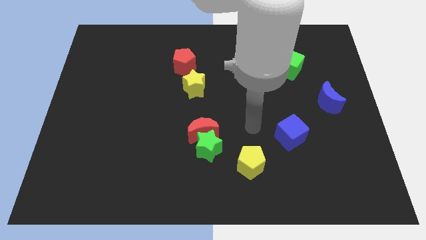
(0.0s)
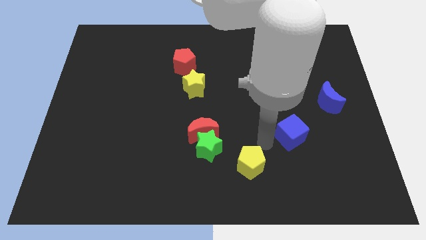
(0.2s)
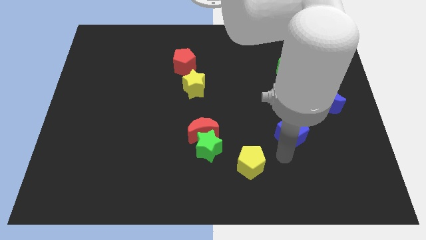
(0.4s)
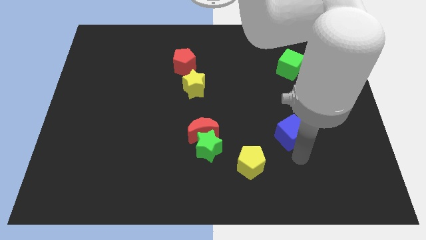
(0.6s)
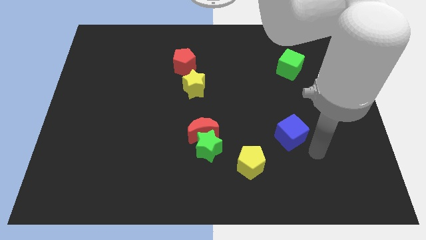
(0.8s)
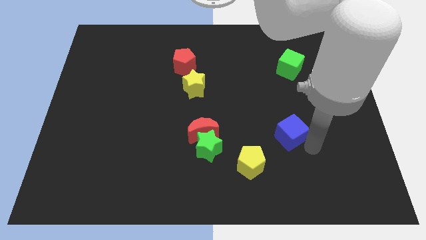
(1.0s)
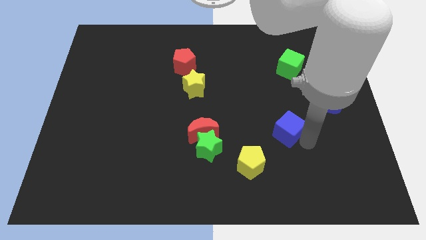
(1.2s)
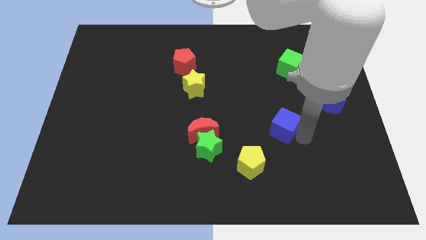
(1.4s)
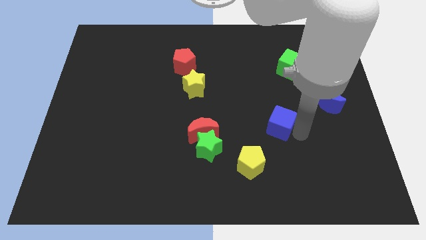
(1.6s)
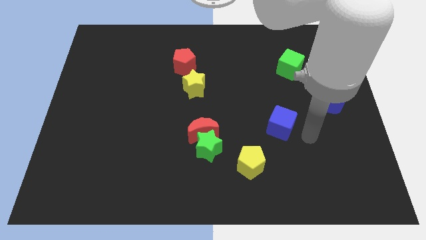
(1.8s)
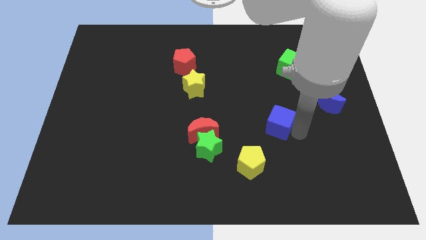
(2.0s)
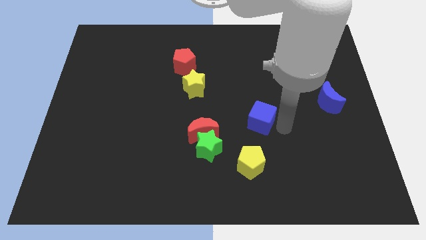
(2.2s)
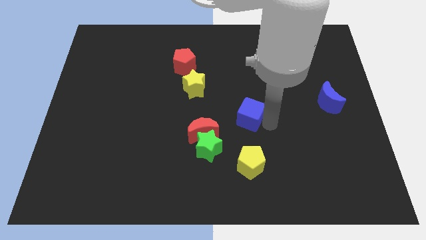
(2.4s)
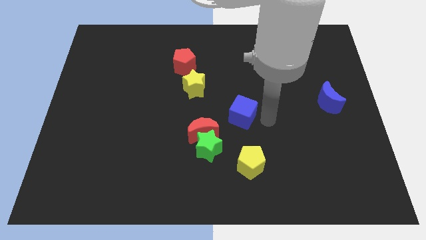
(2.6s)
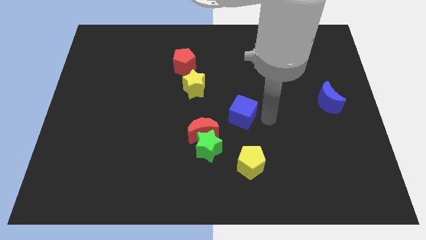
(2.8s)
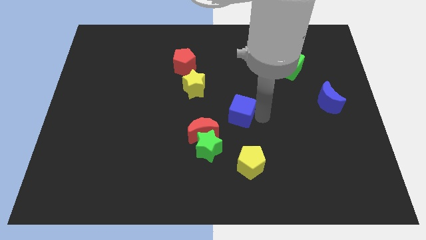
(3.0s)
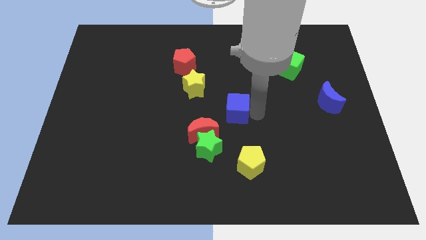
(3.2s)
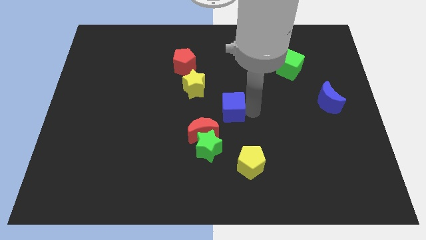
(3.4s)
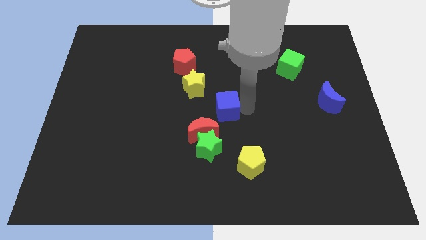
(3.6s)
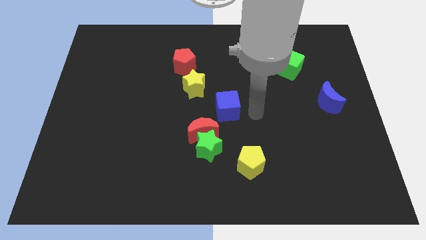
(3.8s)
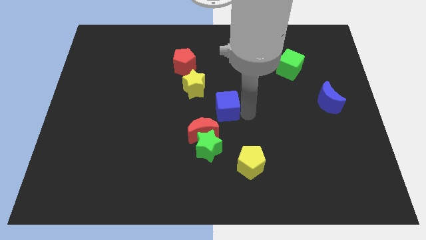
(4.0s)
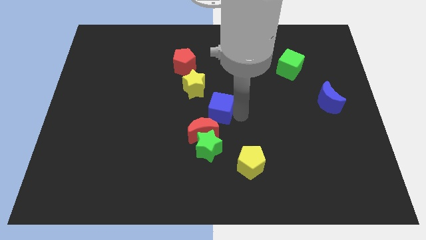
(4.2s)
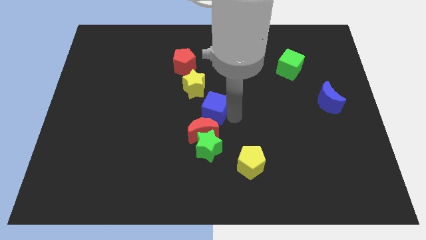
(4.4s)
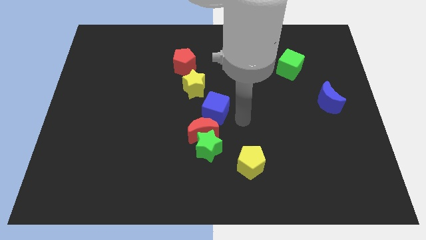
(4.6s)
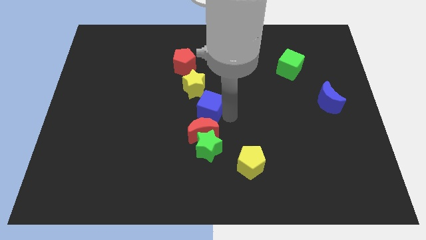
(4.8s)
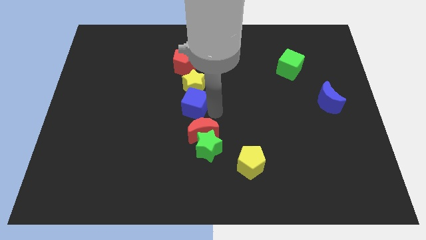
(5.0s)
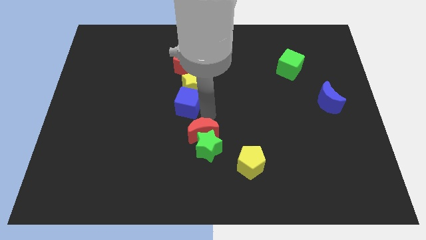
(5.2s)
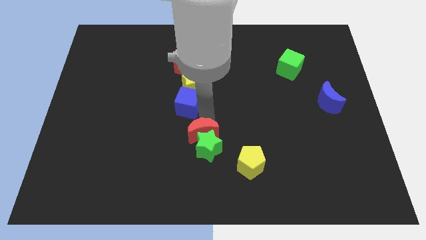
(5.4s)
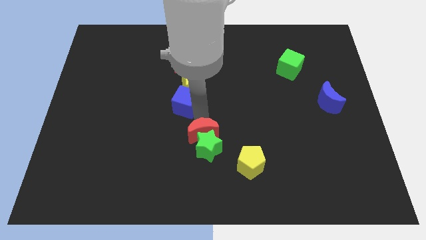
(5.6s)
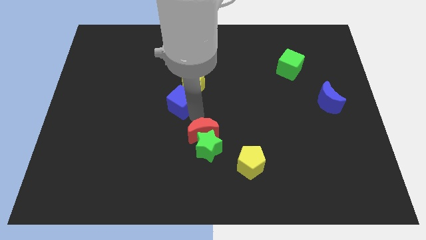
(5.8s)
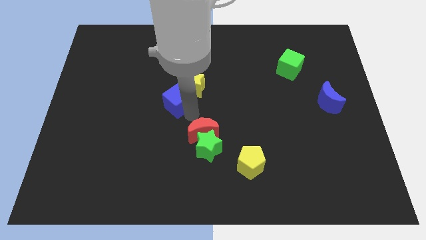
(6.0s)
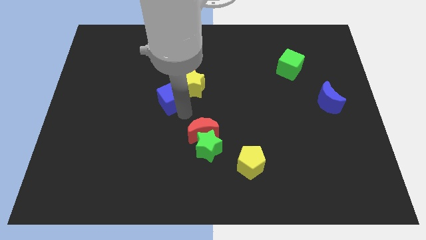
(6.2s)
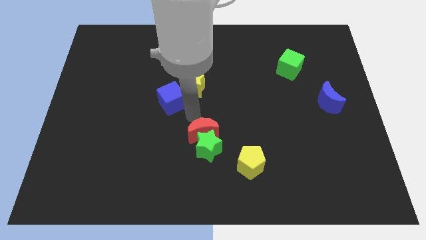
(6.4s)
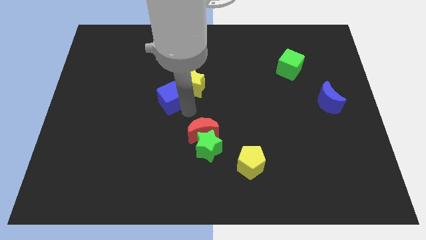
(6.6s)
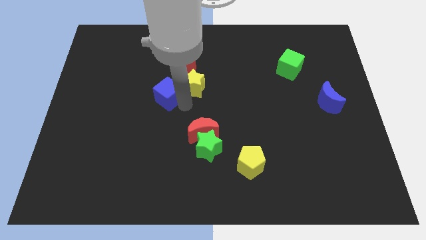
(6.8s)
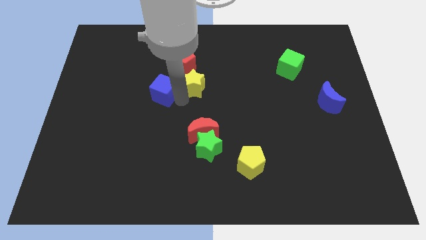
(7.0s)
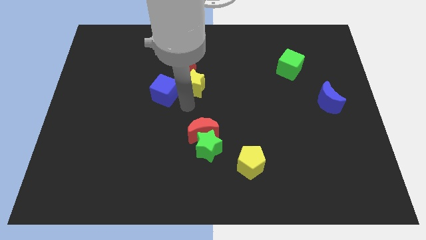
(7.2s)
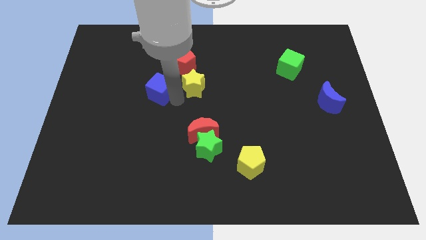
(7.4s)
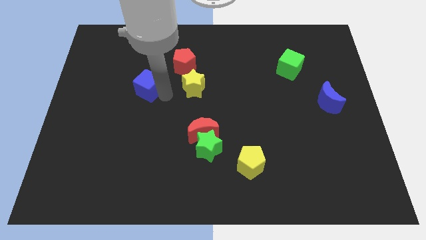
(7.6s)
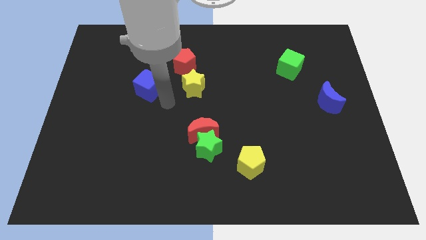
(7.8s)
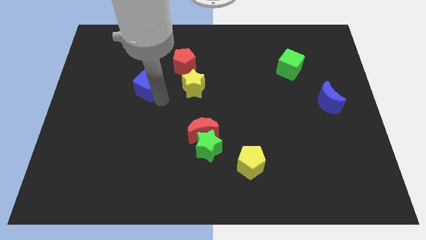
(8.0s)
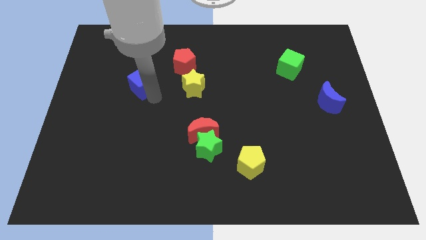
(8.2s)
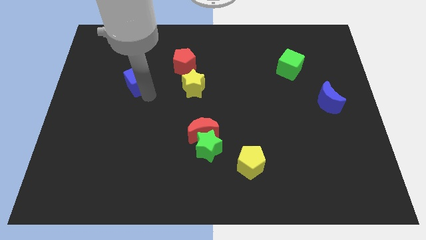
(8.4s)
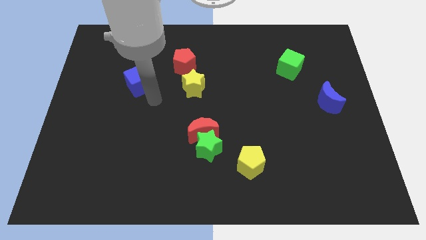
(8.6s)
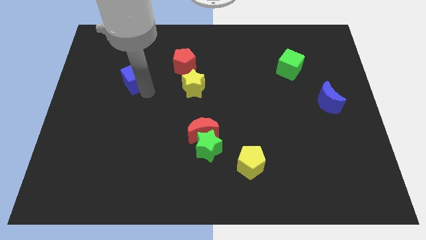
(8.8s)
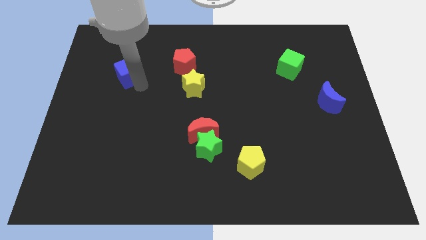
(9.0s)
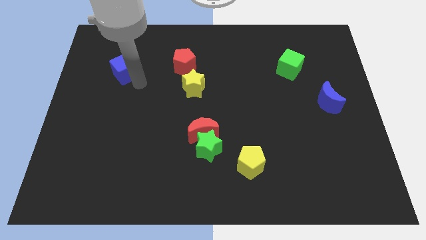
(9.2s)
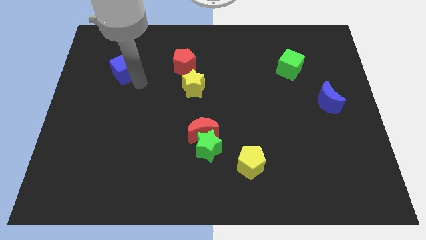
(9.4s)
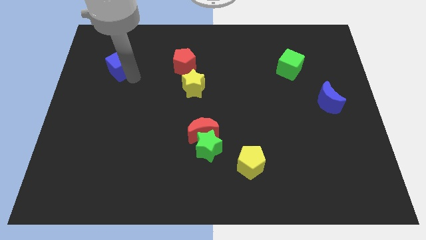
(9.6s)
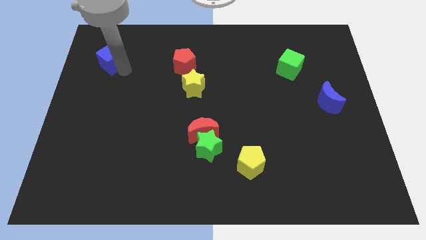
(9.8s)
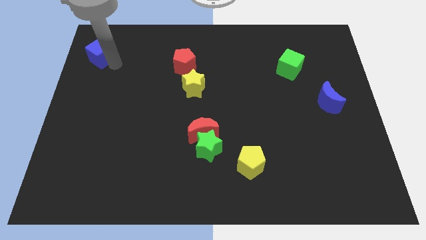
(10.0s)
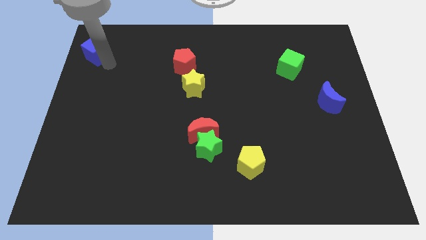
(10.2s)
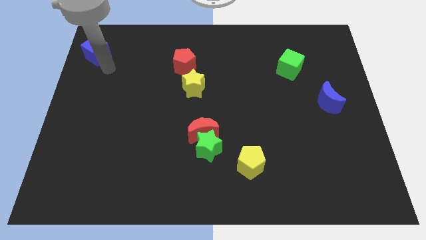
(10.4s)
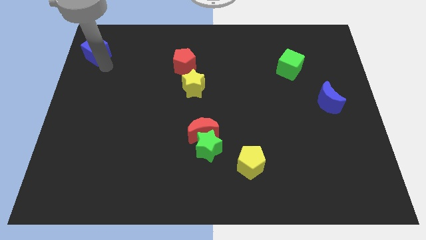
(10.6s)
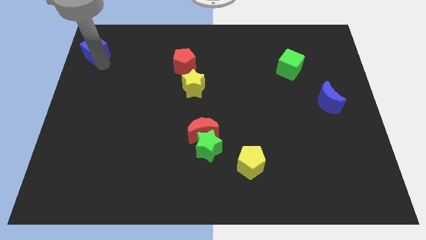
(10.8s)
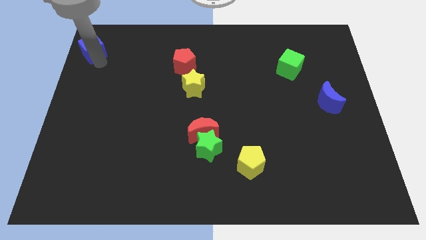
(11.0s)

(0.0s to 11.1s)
slide the blue cube to the upper left corner

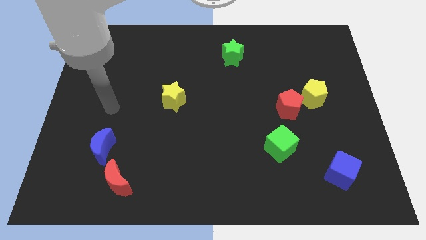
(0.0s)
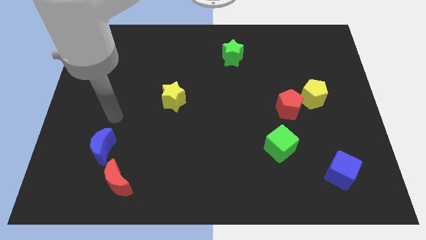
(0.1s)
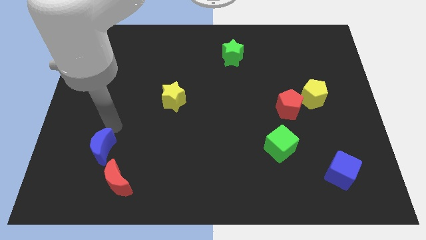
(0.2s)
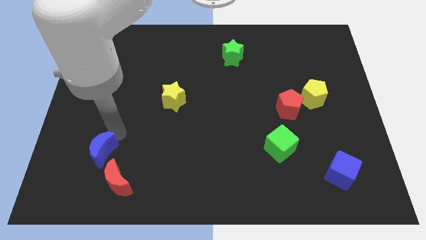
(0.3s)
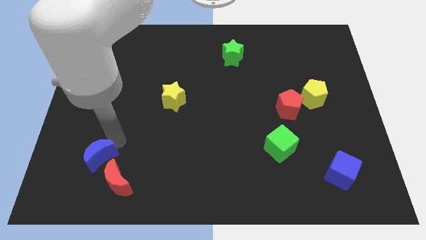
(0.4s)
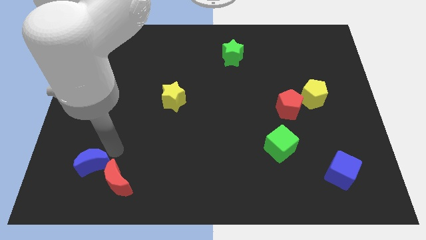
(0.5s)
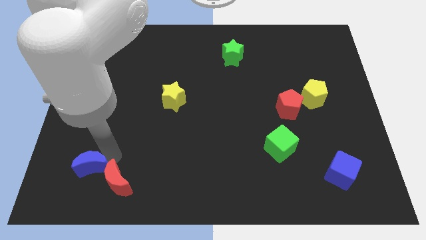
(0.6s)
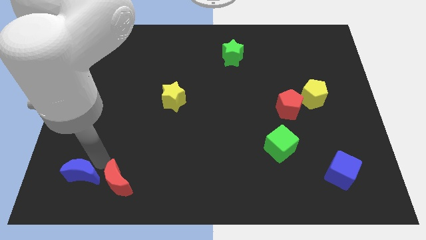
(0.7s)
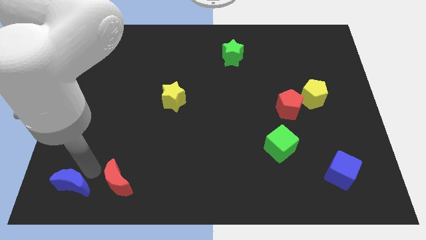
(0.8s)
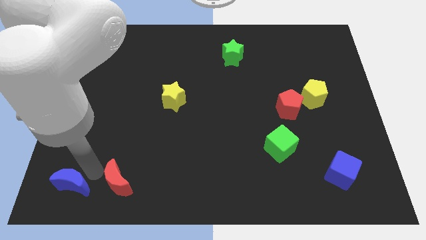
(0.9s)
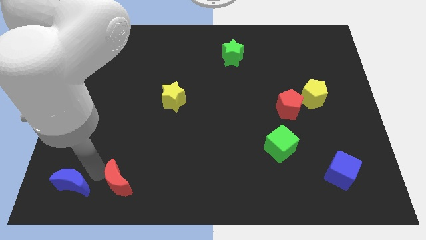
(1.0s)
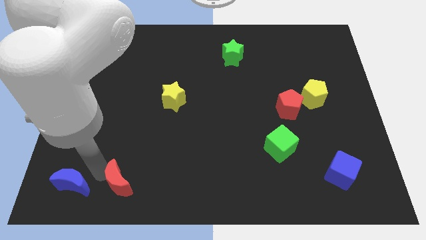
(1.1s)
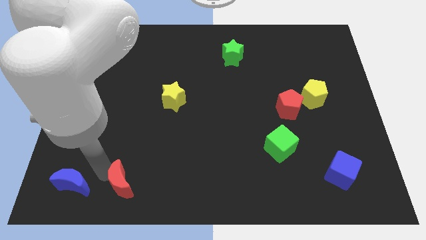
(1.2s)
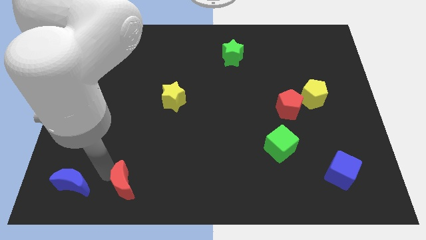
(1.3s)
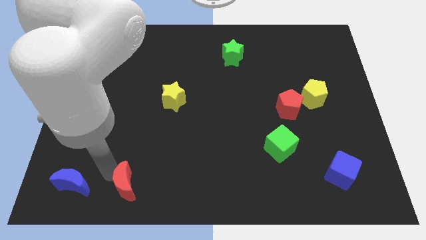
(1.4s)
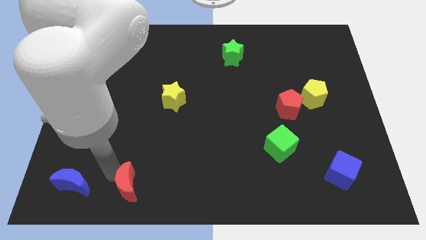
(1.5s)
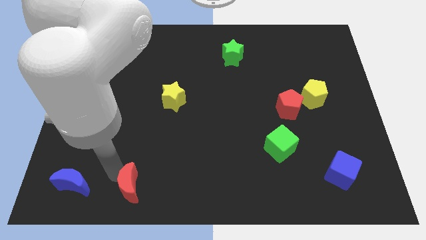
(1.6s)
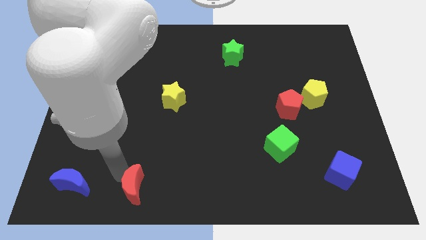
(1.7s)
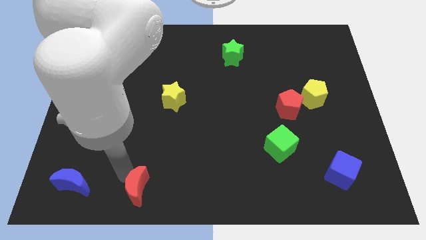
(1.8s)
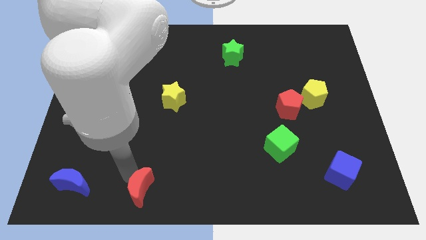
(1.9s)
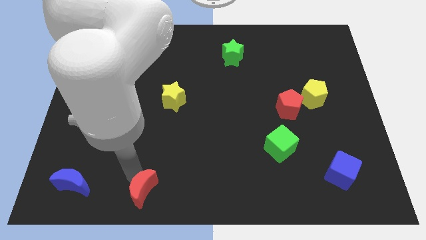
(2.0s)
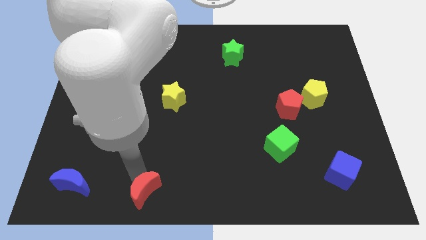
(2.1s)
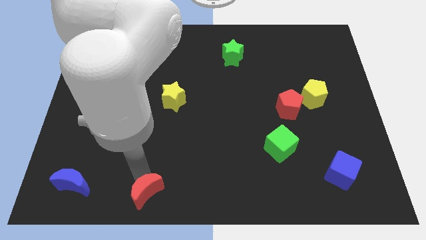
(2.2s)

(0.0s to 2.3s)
put the red moon to the bottom side

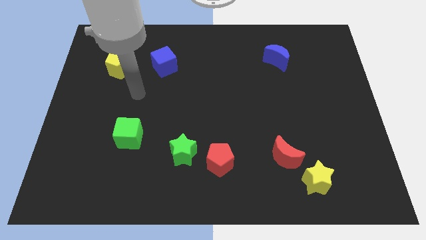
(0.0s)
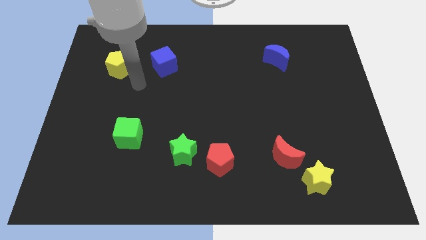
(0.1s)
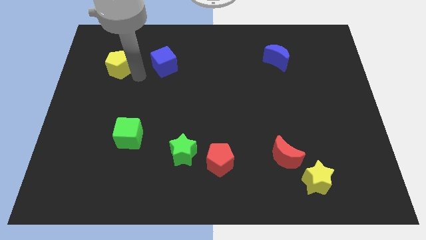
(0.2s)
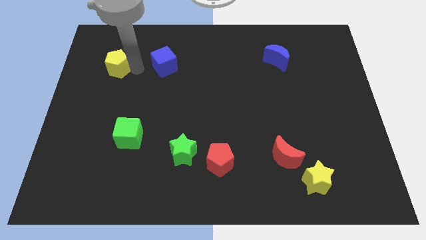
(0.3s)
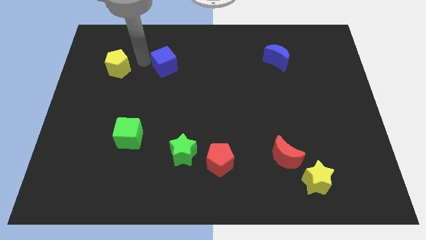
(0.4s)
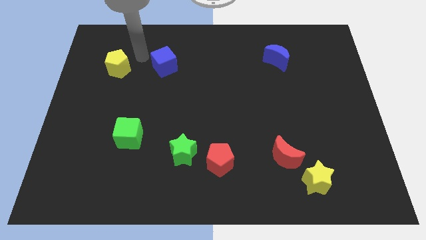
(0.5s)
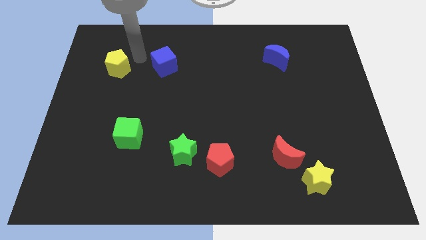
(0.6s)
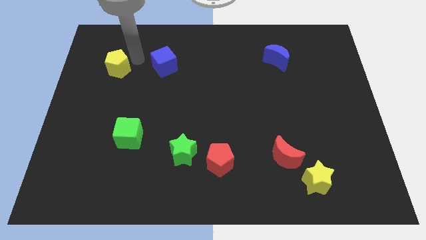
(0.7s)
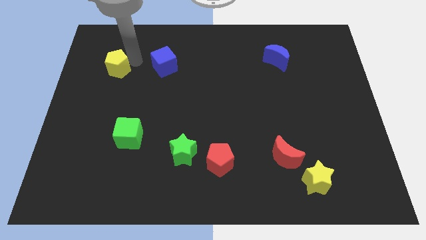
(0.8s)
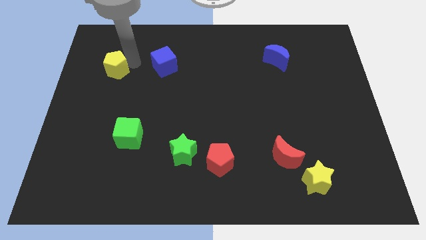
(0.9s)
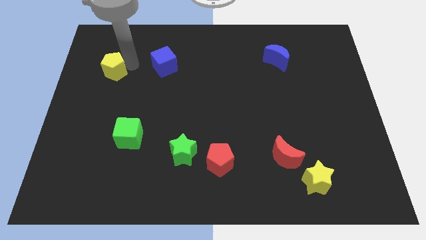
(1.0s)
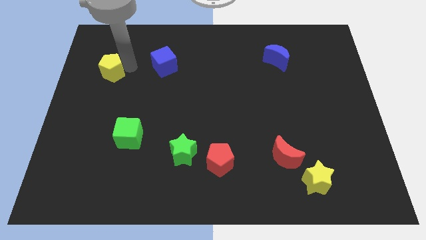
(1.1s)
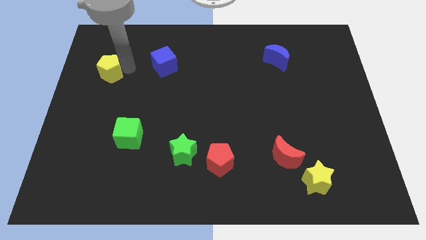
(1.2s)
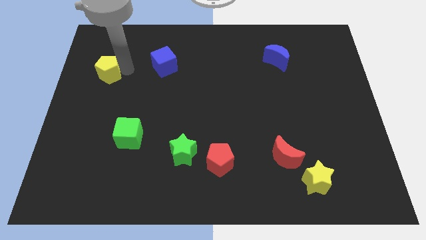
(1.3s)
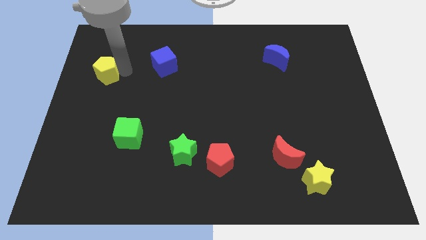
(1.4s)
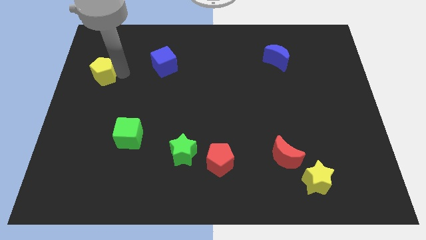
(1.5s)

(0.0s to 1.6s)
slide the yellow pentagon to the center left
